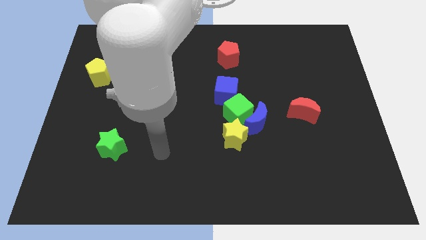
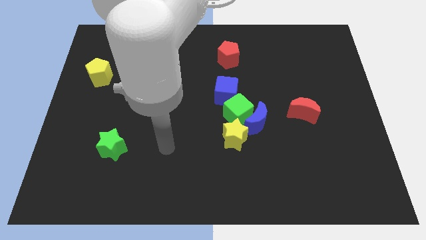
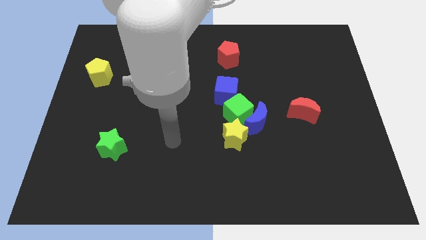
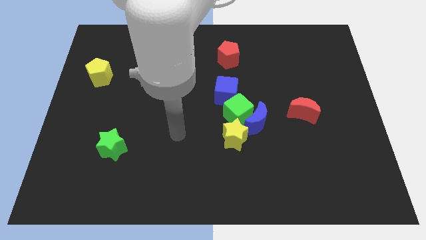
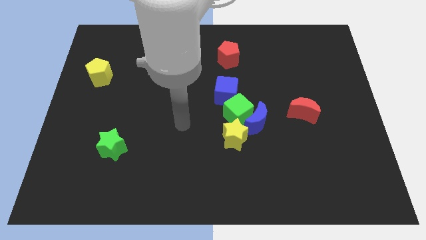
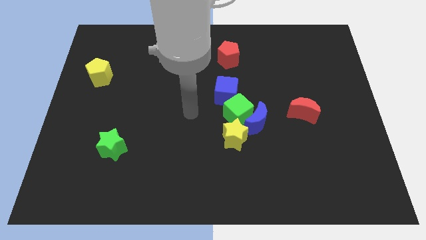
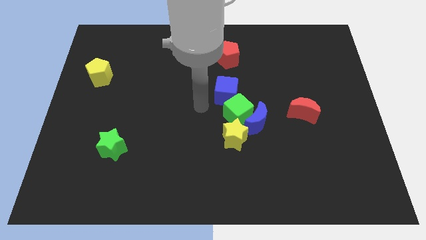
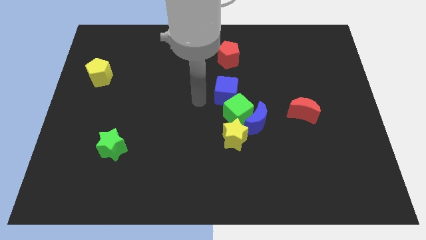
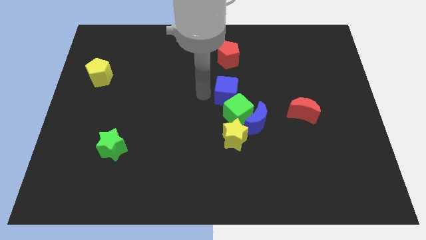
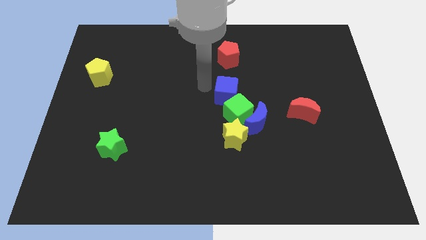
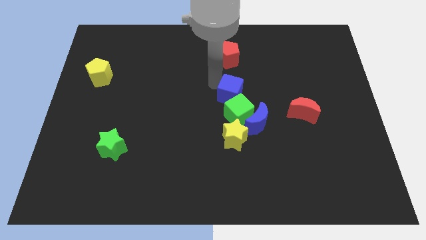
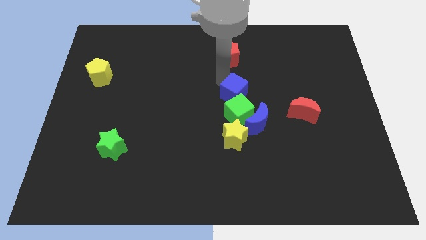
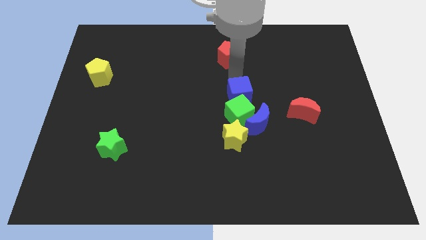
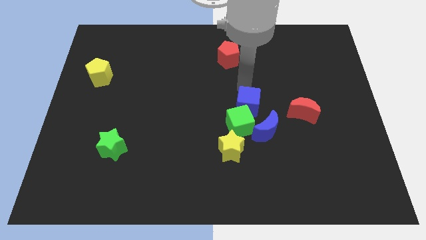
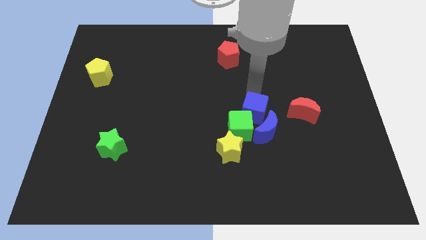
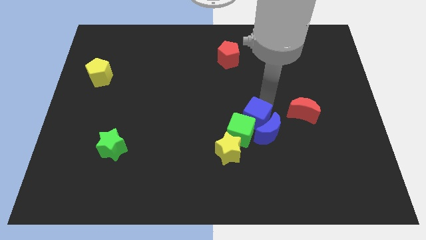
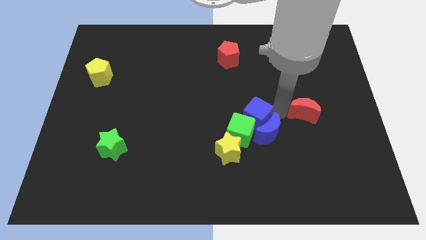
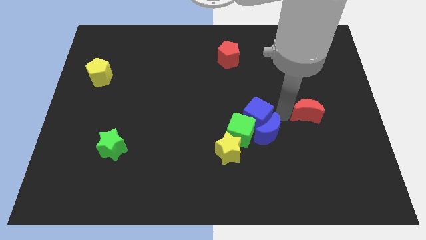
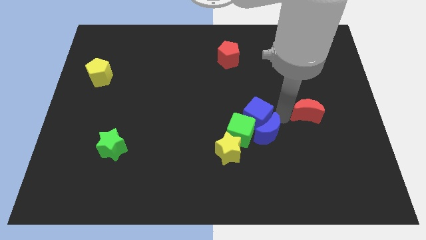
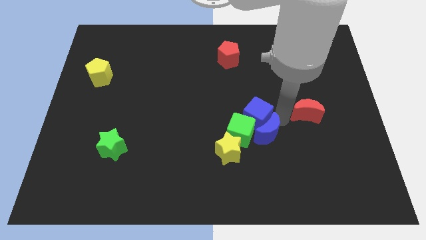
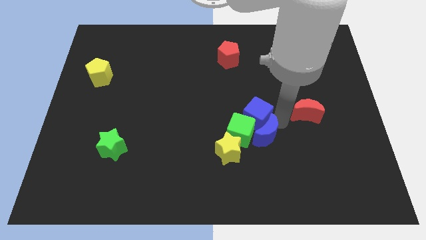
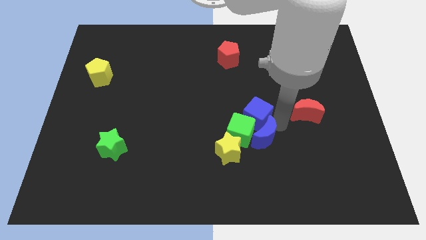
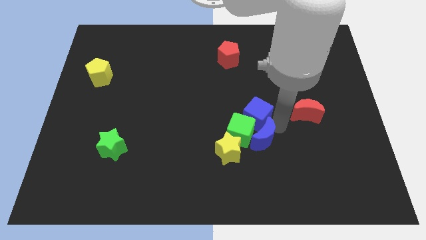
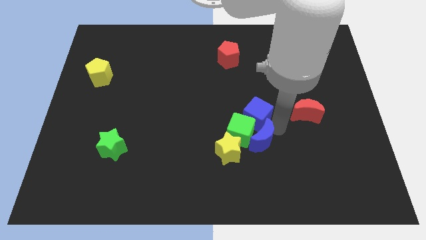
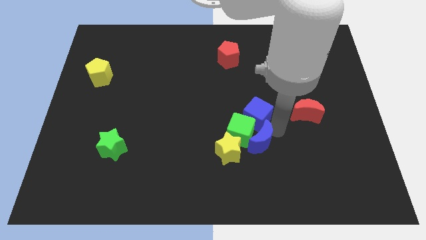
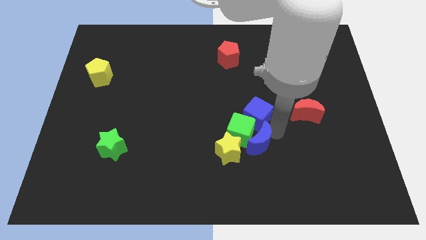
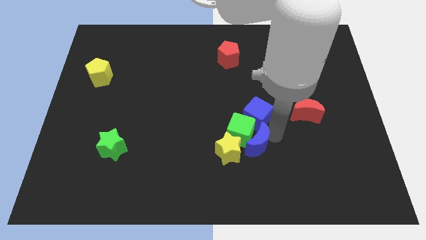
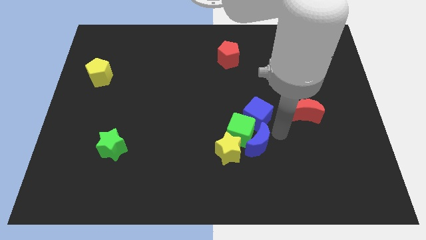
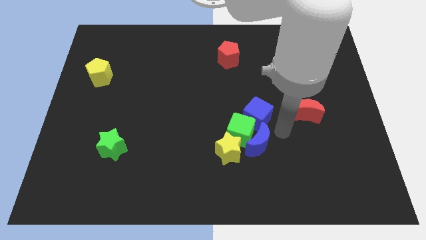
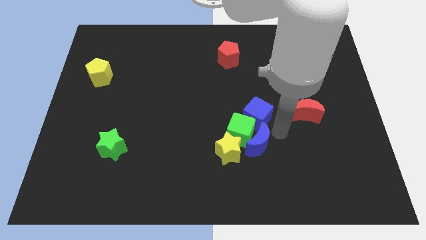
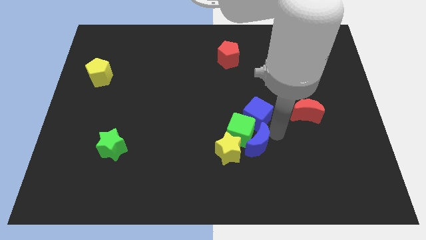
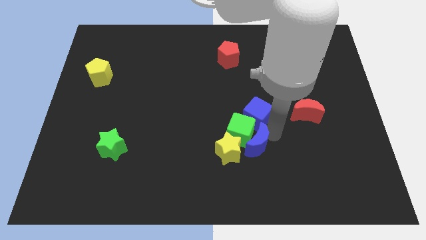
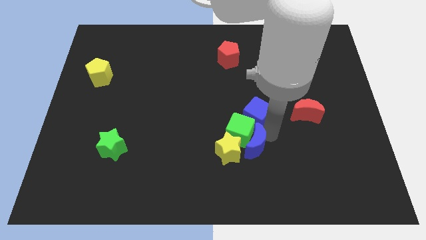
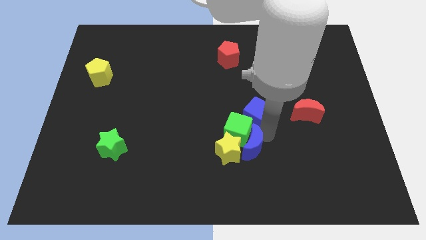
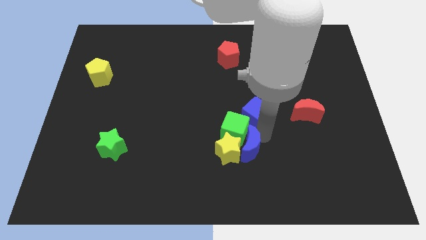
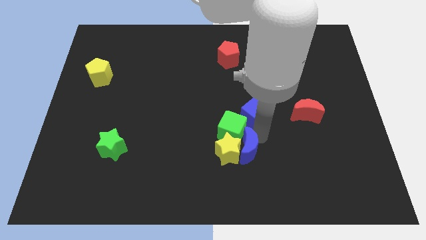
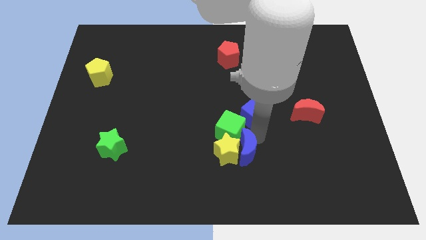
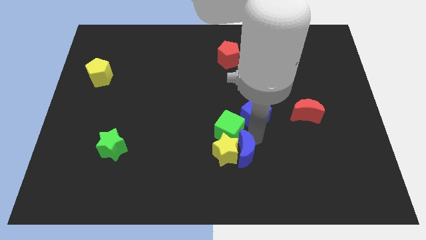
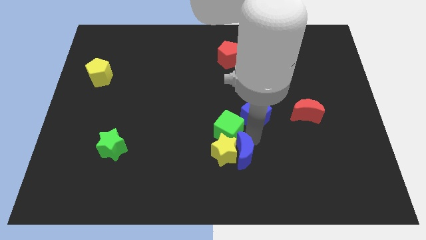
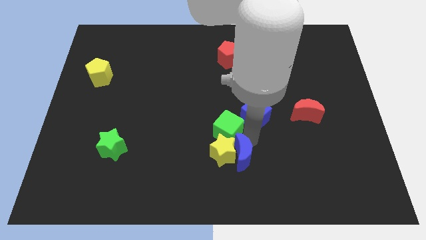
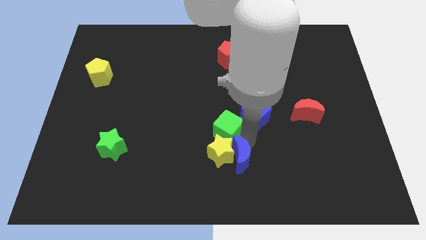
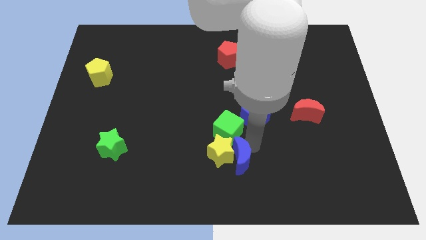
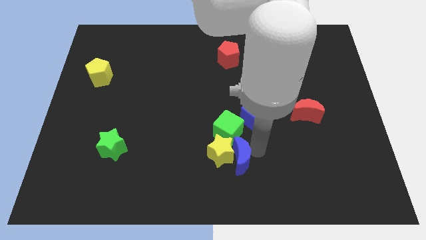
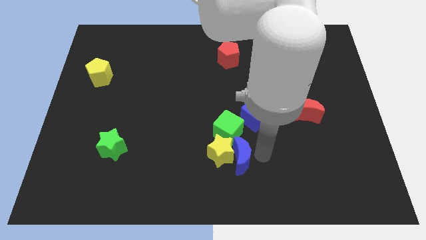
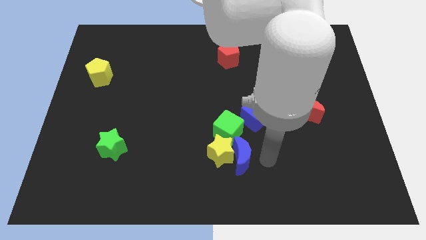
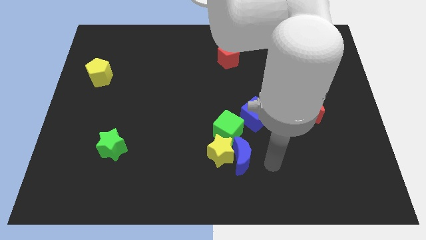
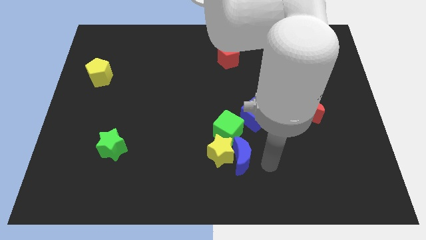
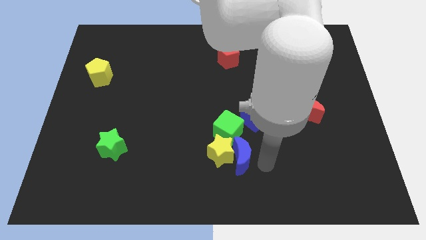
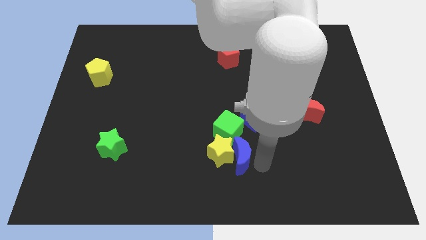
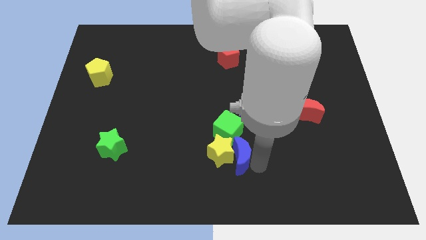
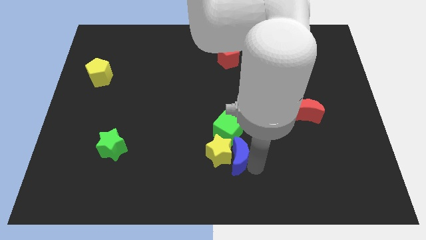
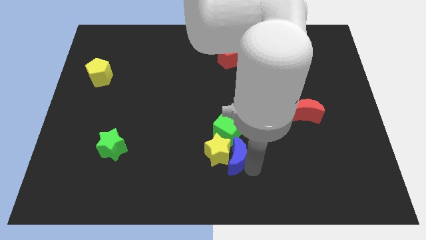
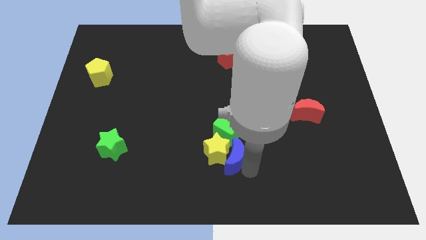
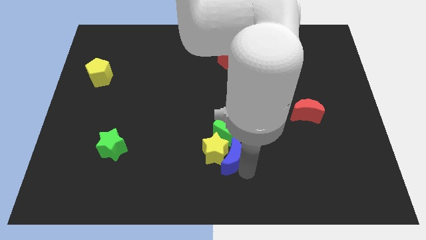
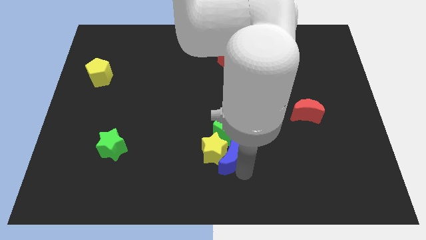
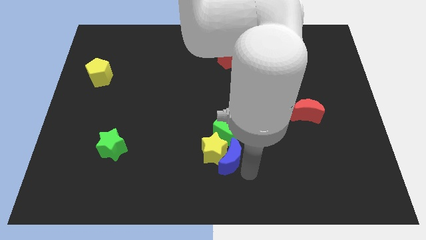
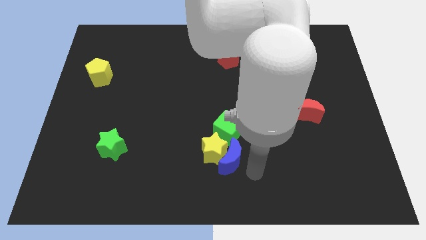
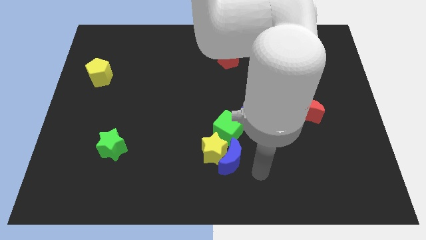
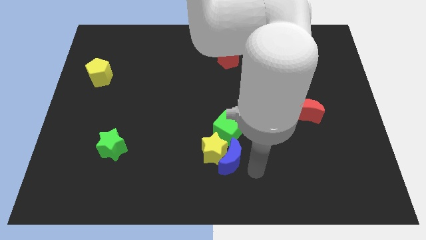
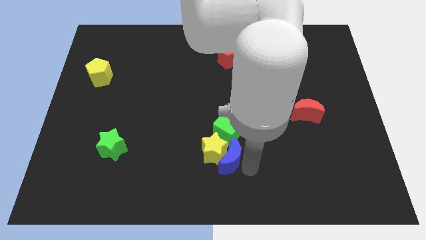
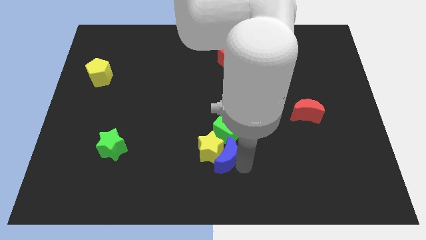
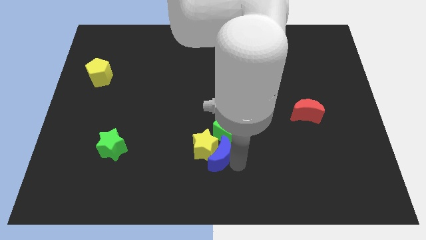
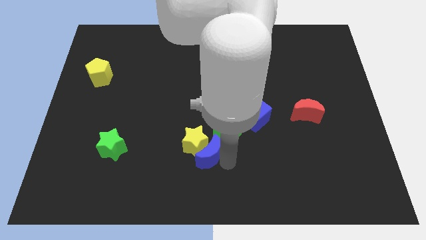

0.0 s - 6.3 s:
move the blue moon to the left somewhat

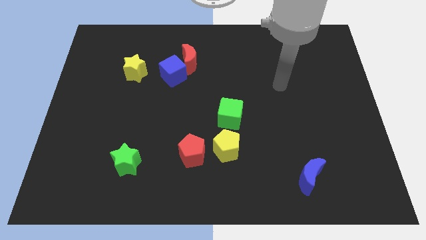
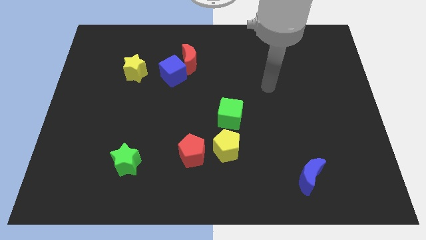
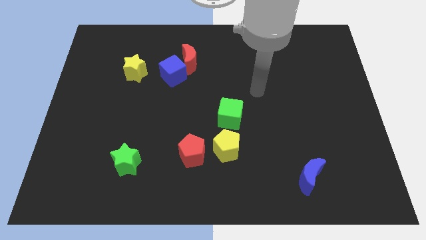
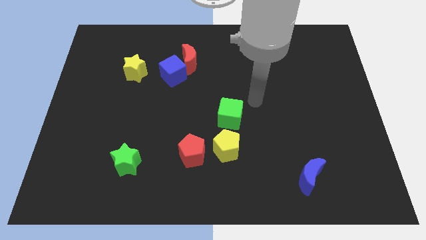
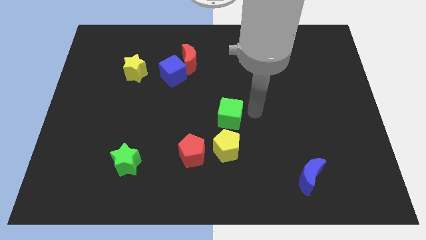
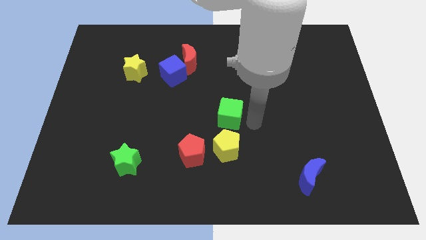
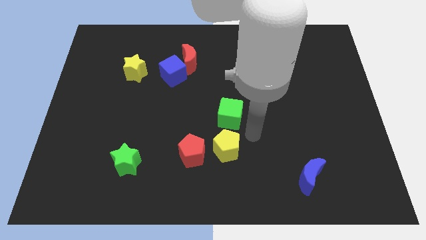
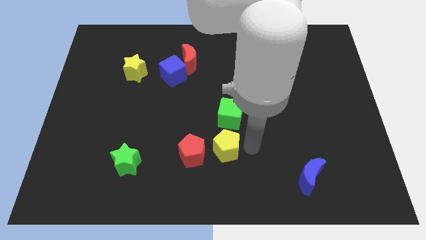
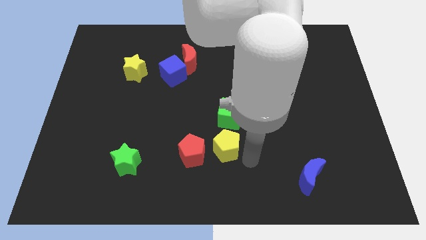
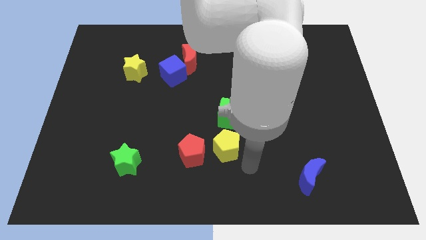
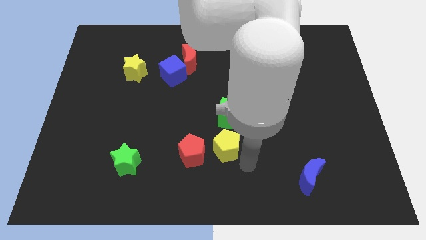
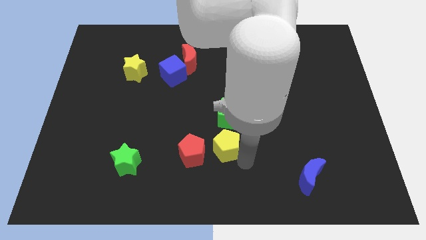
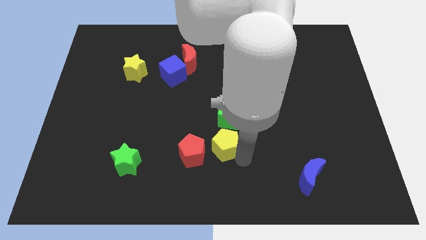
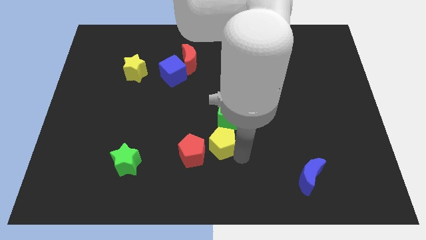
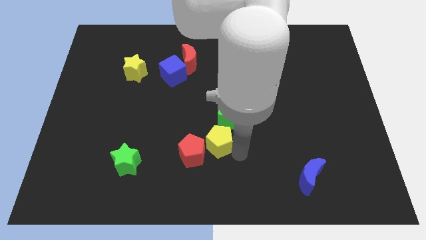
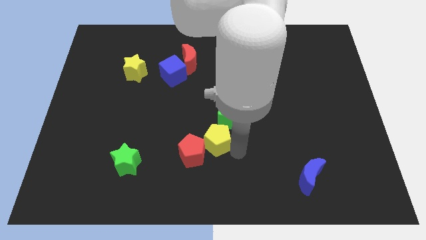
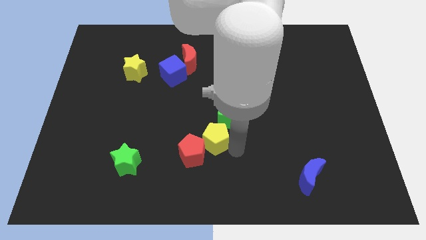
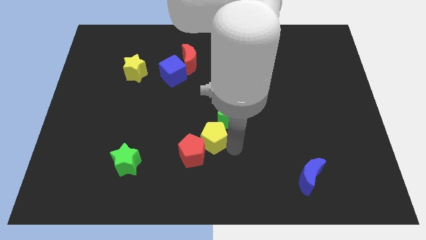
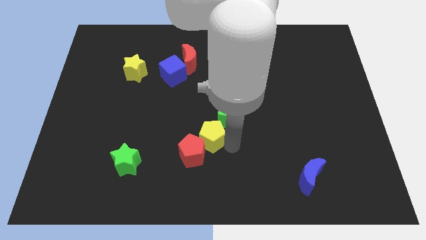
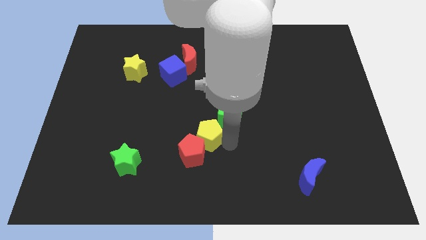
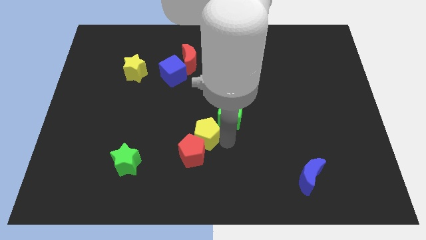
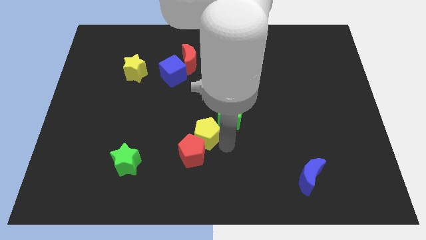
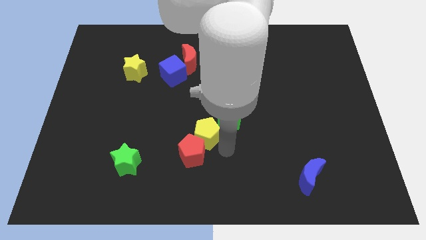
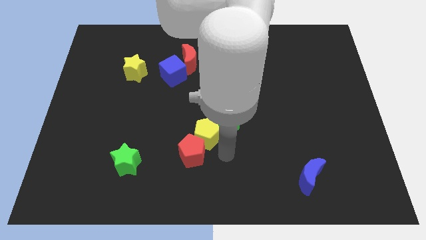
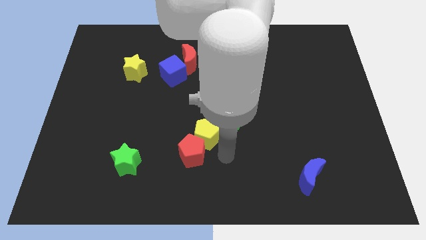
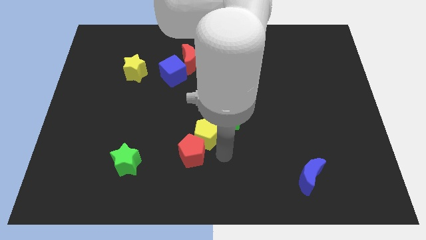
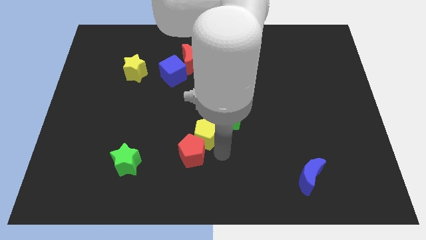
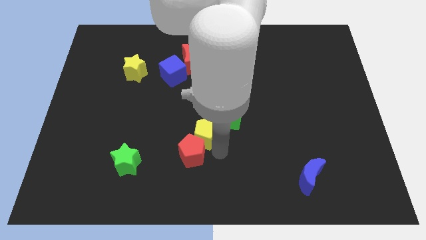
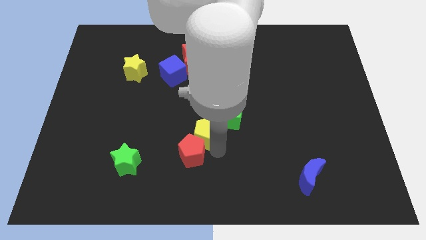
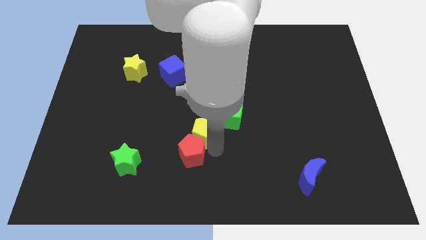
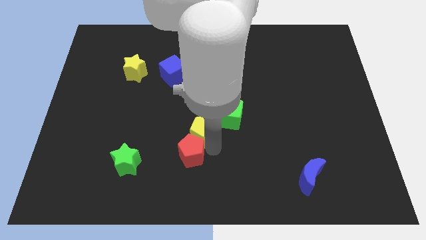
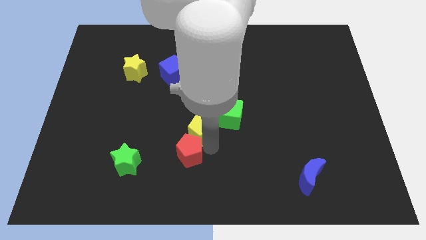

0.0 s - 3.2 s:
slightly move the yellow pentagon up and left diagonally
